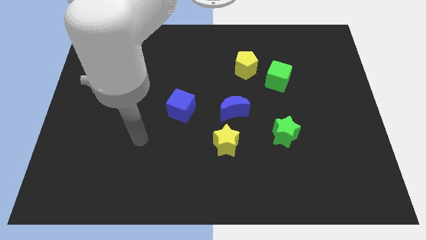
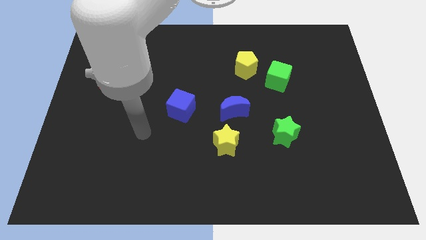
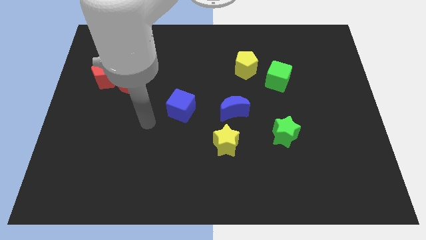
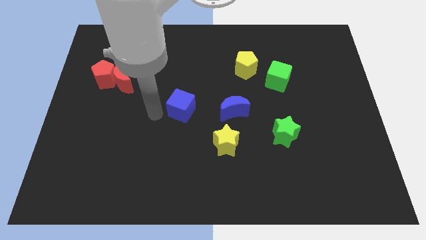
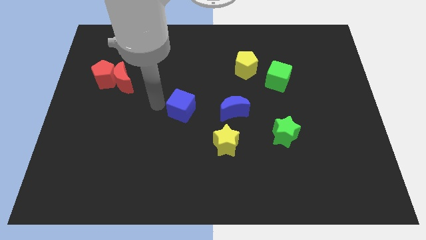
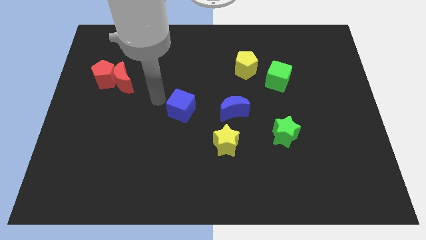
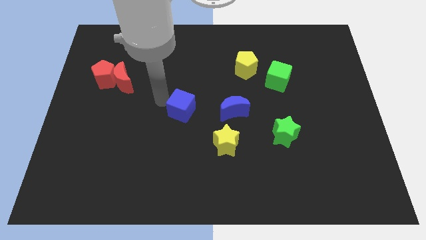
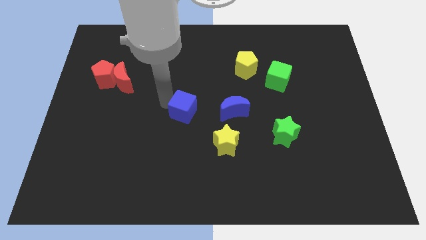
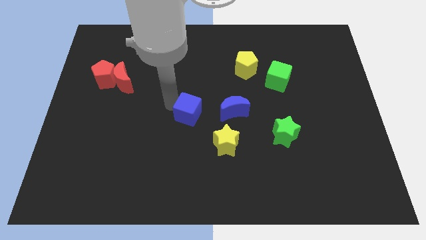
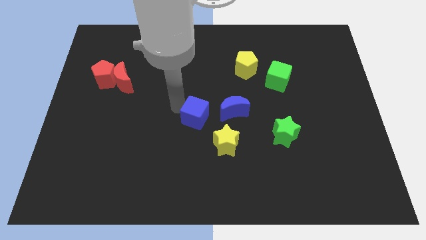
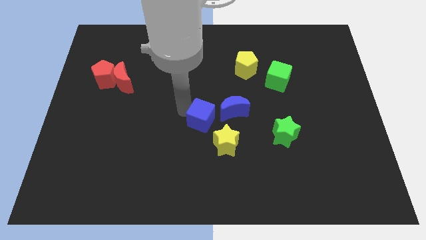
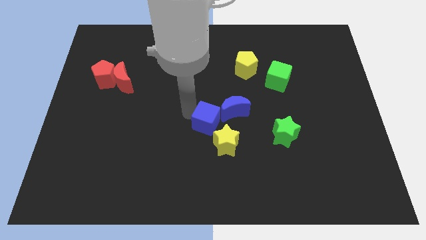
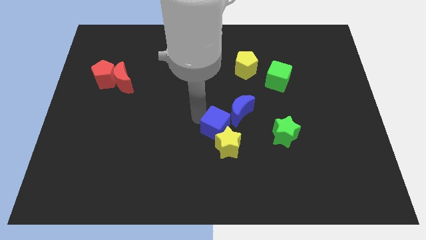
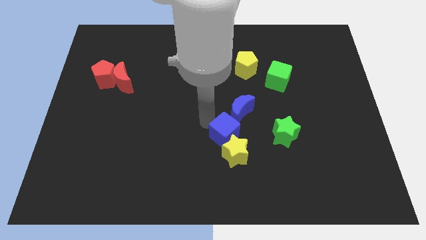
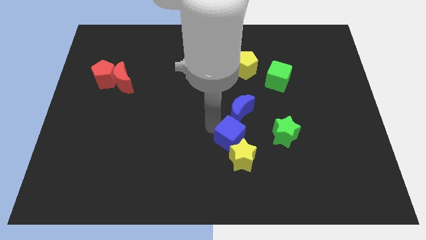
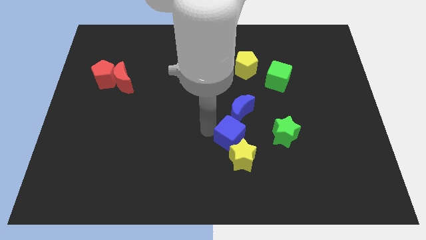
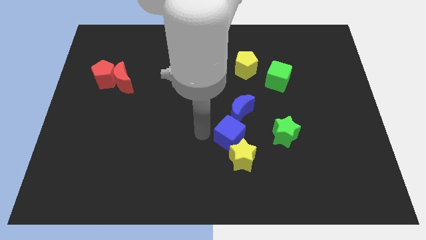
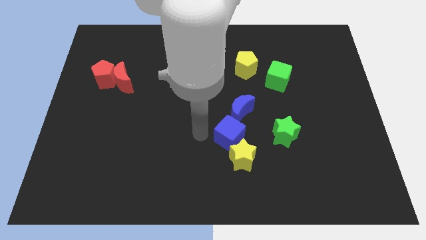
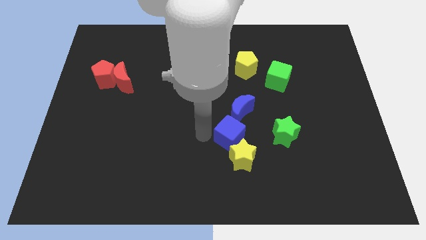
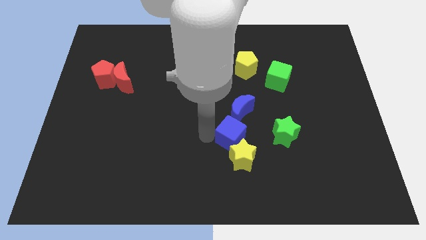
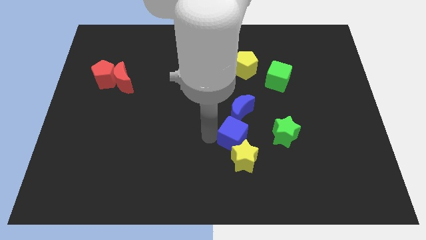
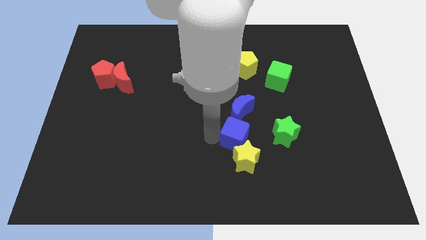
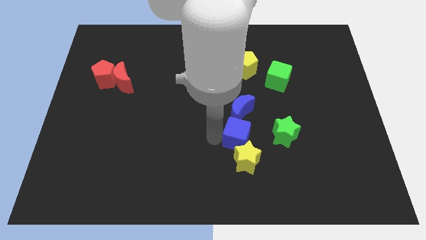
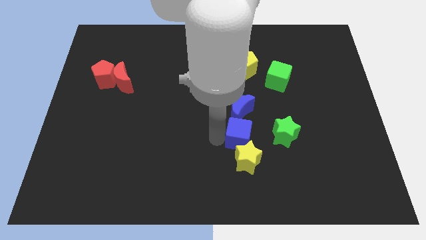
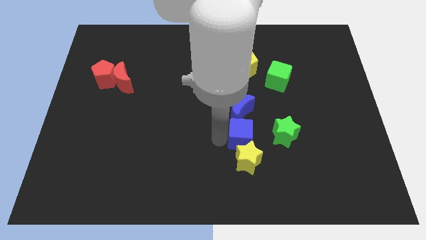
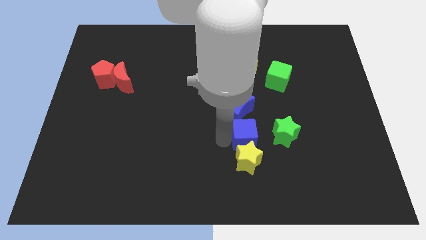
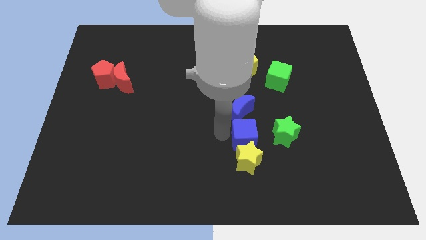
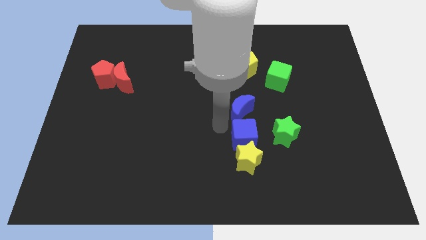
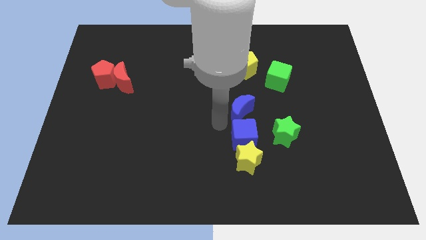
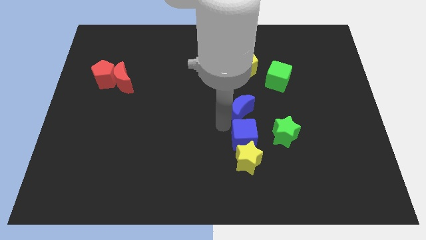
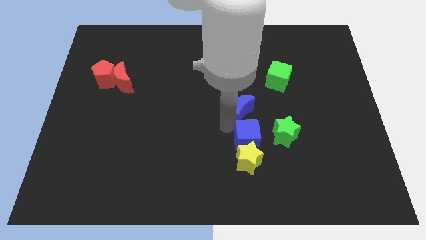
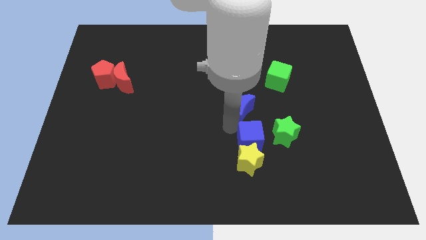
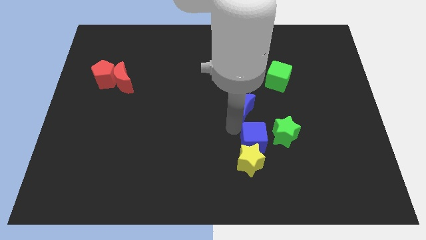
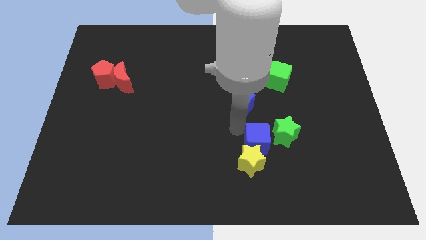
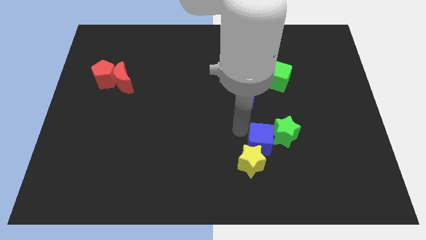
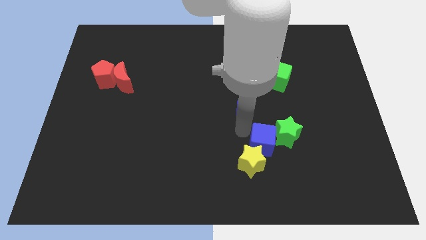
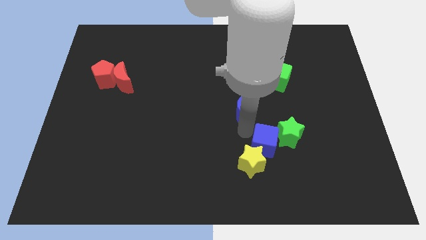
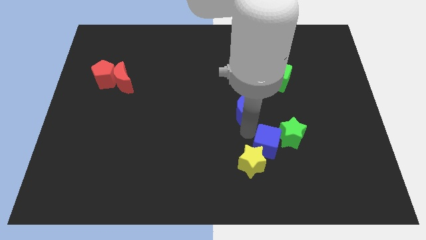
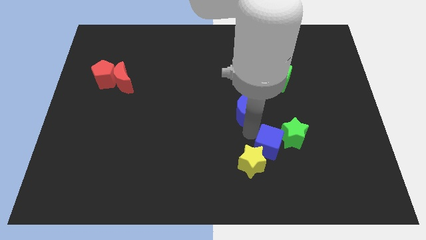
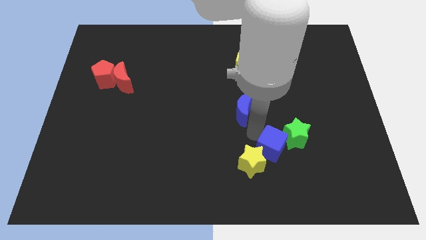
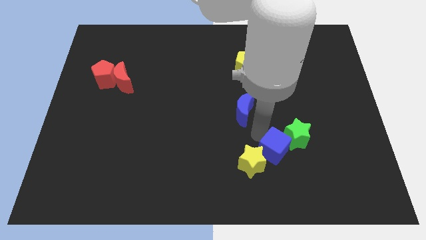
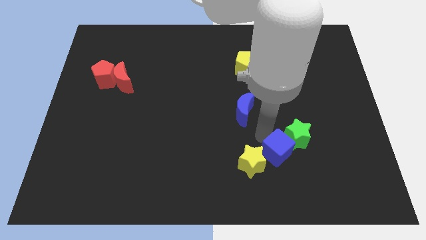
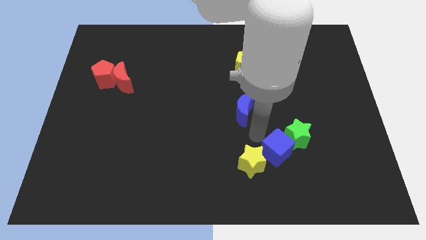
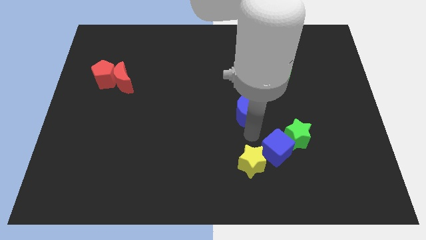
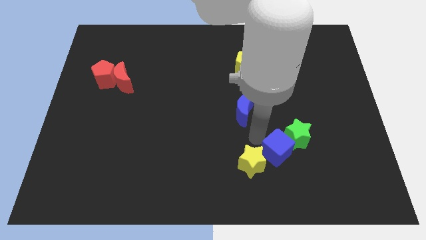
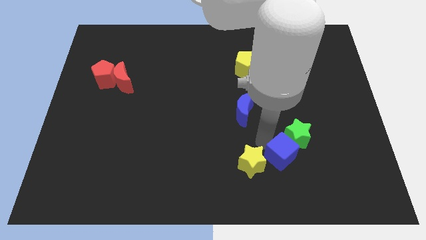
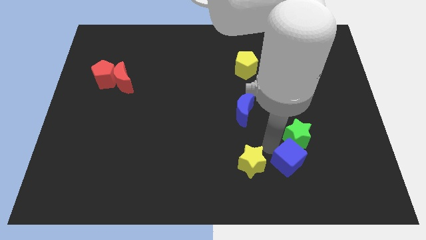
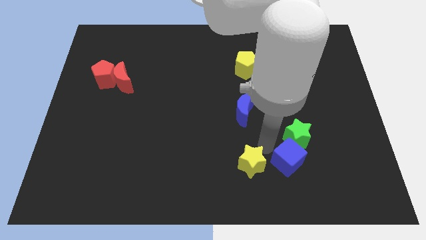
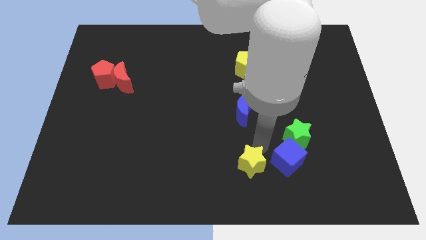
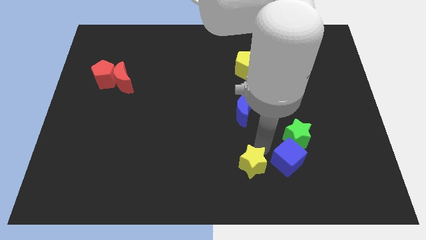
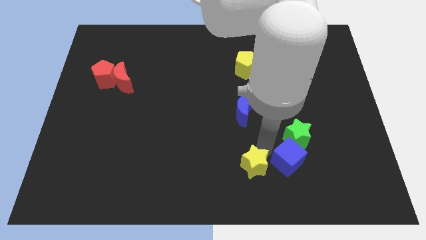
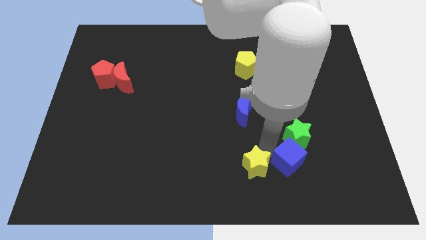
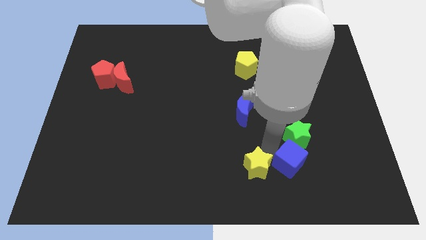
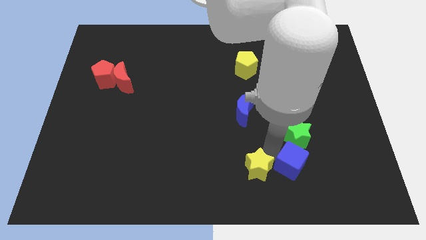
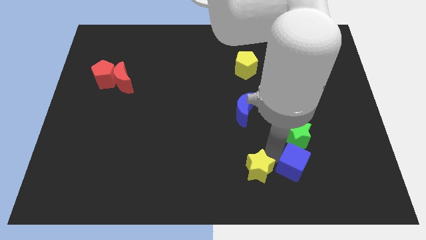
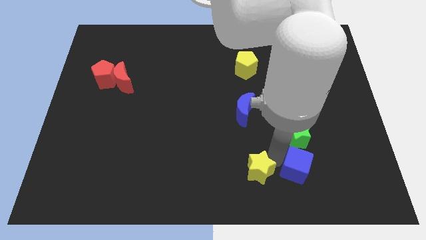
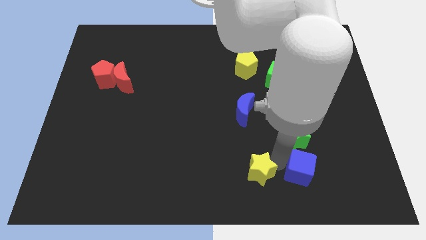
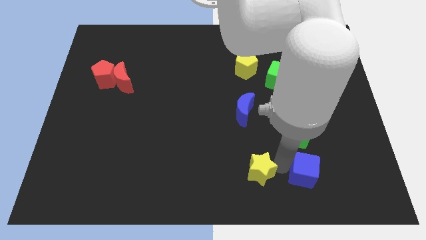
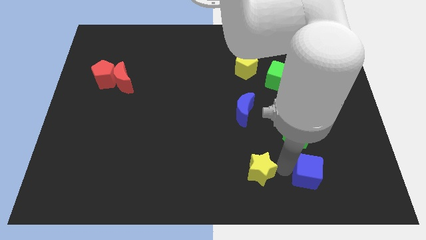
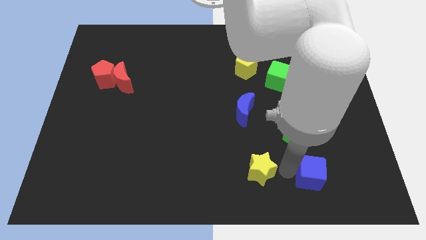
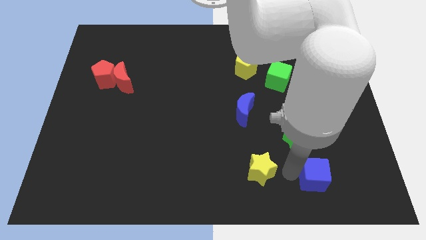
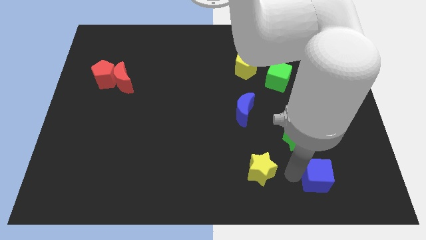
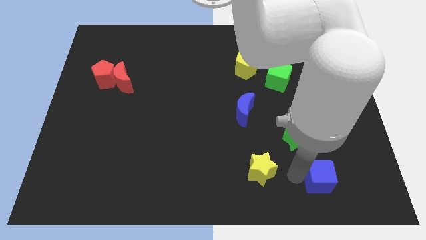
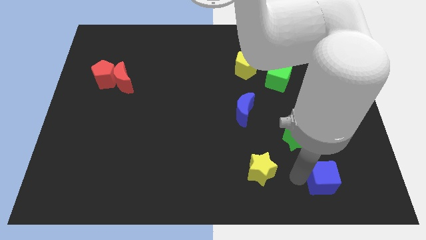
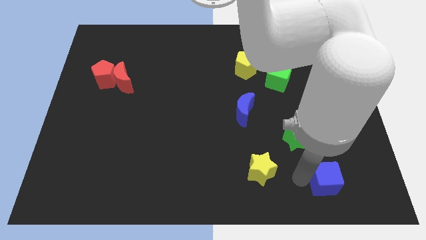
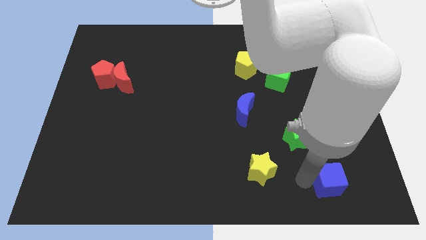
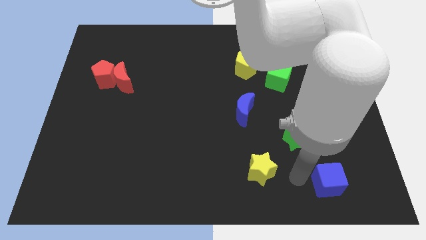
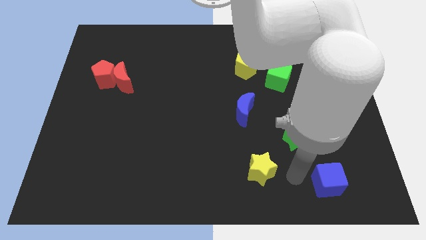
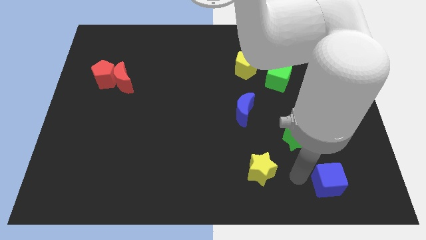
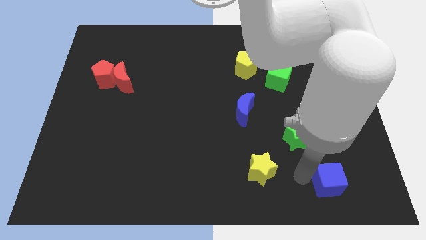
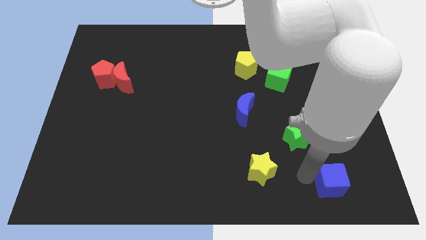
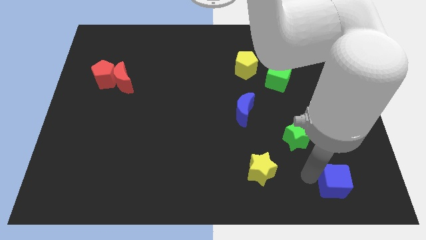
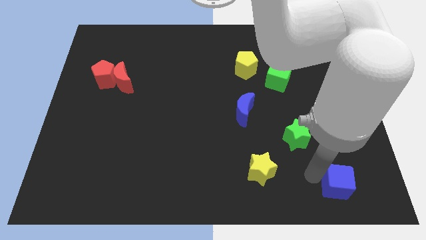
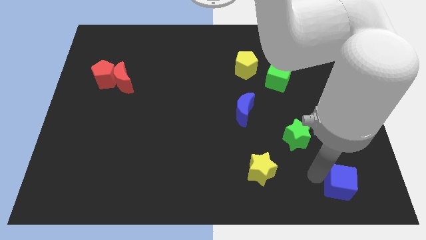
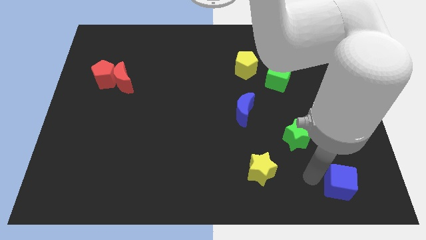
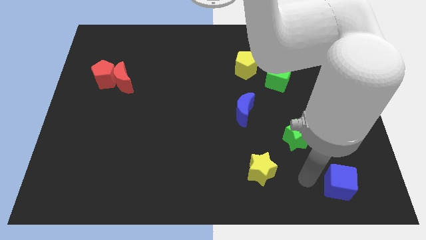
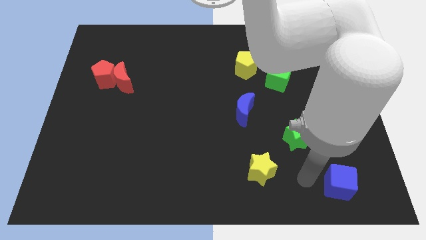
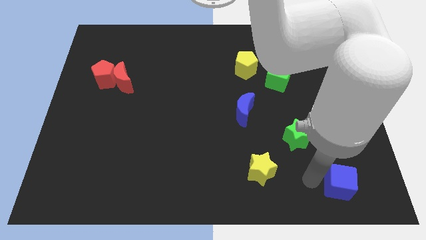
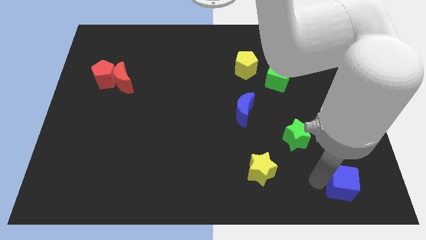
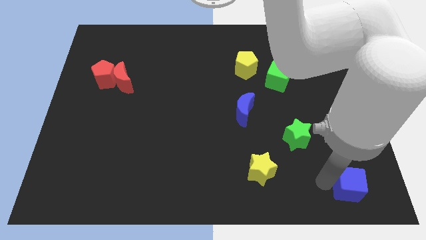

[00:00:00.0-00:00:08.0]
put the blue cube to the lower right corner
